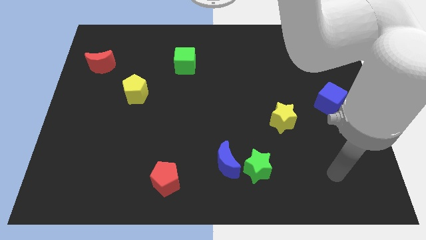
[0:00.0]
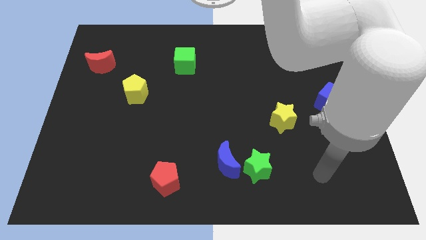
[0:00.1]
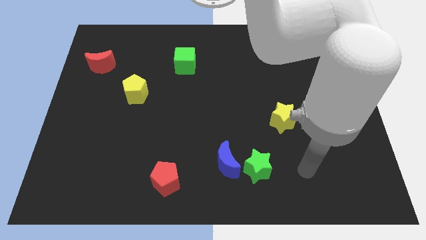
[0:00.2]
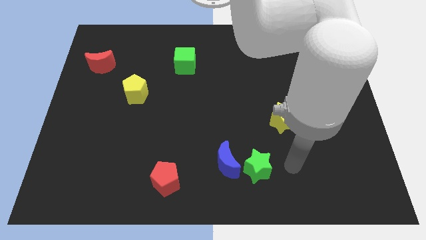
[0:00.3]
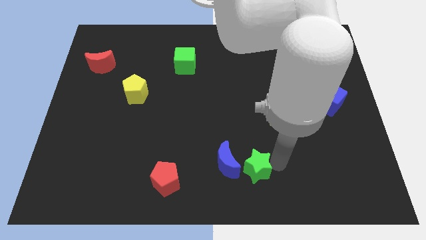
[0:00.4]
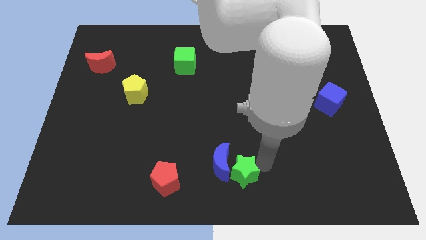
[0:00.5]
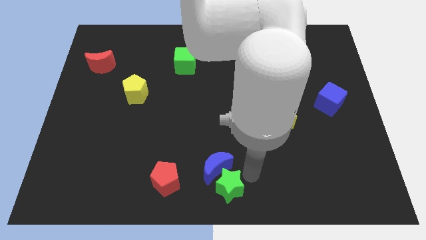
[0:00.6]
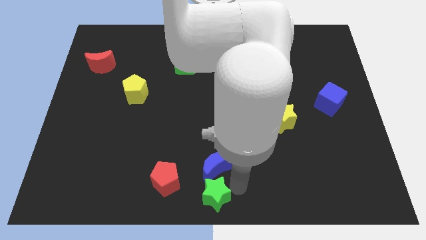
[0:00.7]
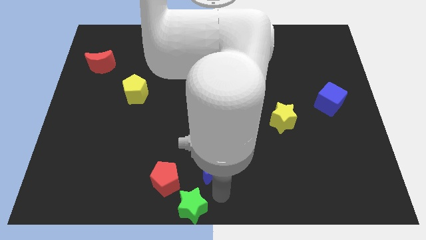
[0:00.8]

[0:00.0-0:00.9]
pull the blue moon apart from the green star

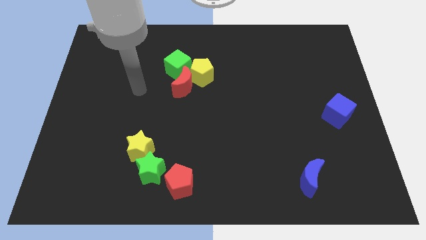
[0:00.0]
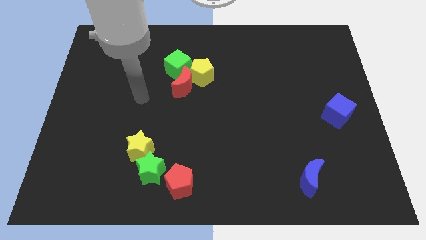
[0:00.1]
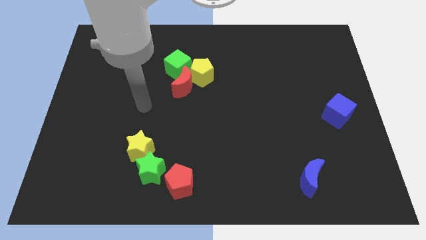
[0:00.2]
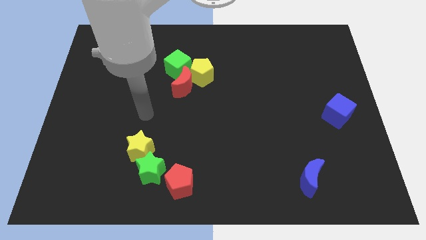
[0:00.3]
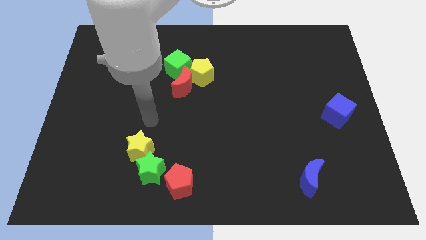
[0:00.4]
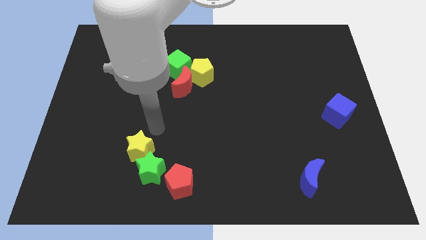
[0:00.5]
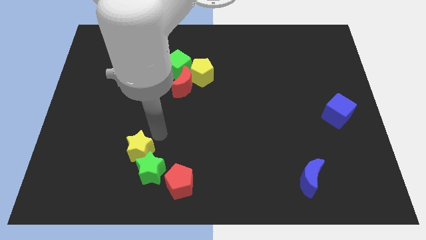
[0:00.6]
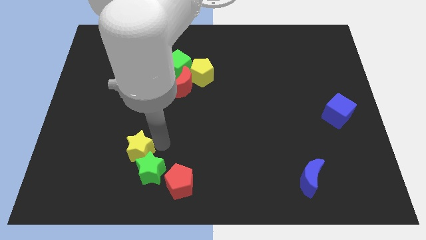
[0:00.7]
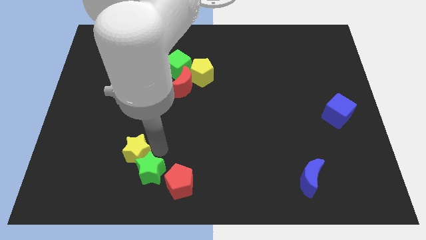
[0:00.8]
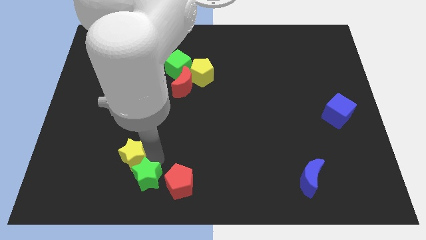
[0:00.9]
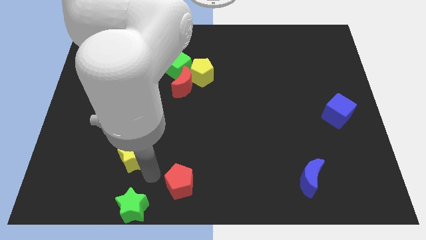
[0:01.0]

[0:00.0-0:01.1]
move the yellow star away from the green star

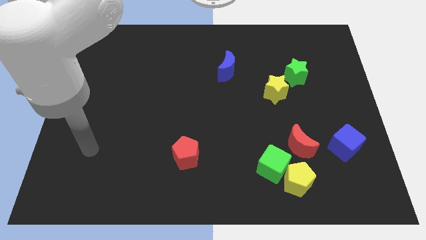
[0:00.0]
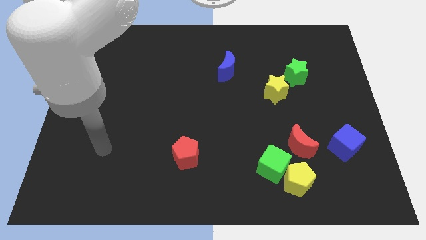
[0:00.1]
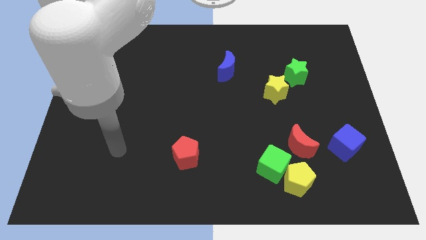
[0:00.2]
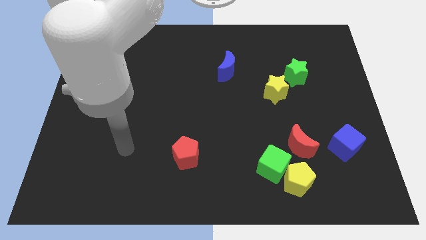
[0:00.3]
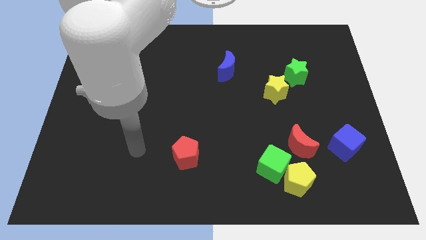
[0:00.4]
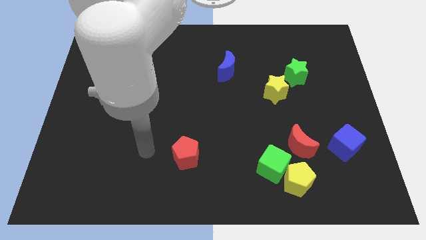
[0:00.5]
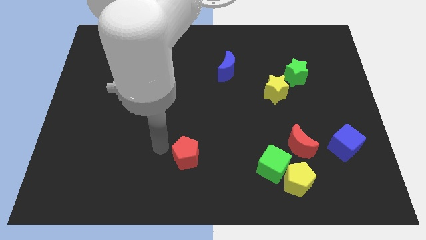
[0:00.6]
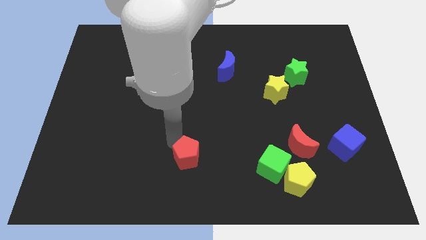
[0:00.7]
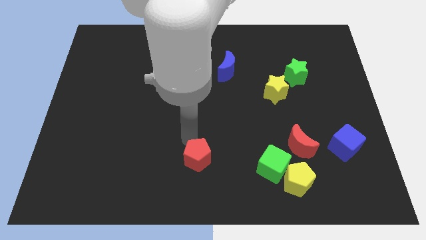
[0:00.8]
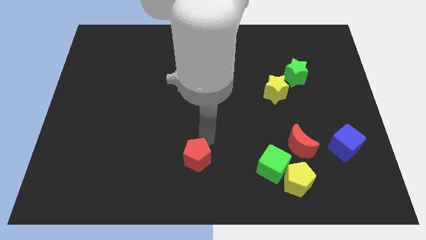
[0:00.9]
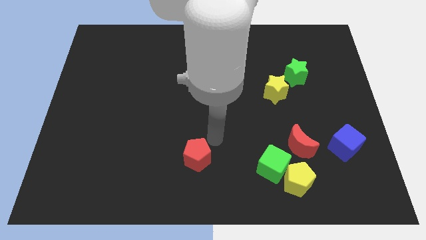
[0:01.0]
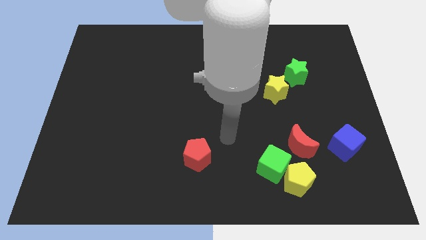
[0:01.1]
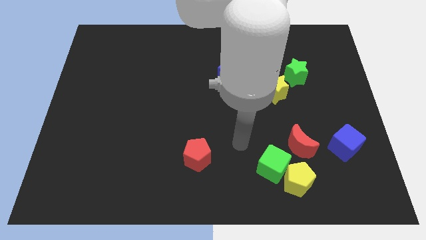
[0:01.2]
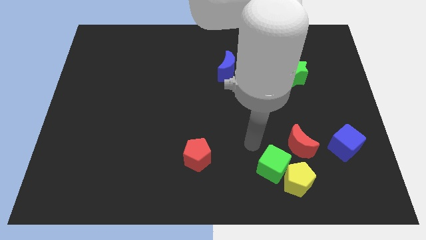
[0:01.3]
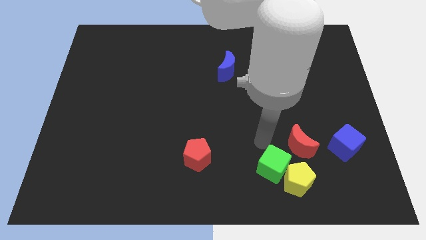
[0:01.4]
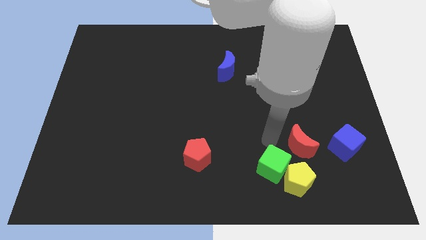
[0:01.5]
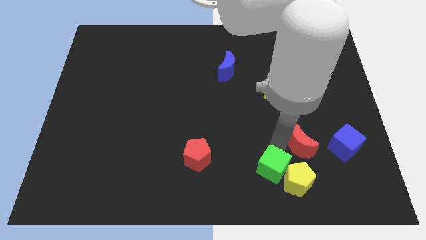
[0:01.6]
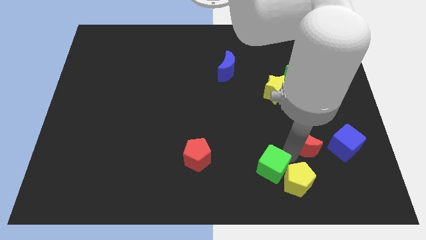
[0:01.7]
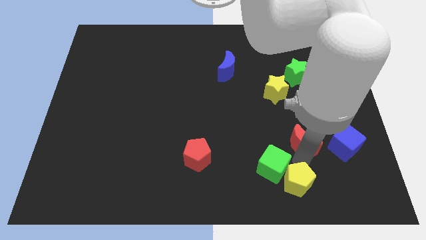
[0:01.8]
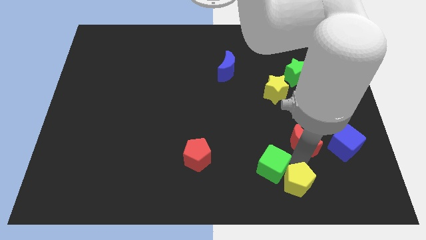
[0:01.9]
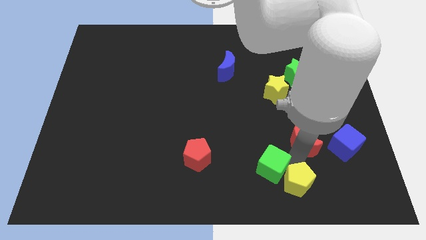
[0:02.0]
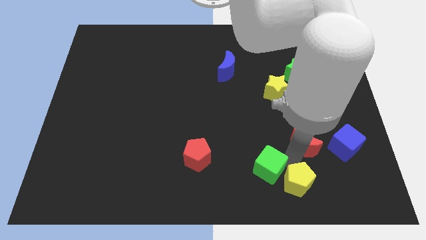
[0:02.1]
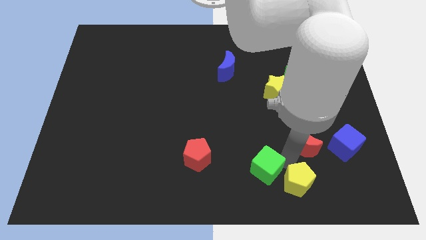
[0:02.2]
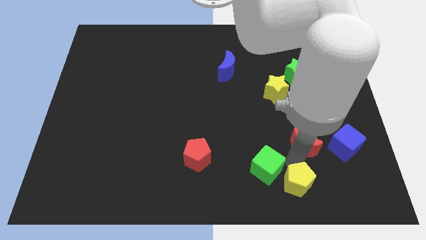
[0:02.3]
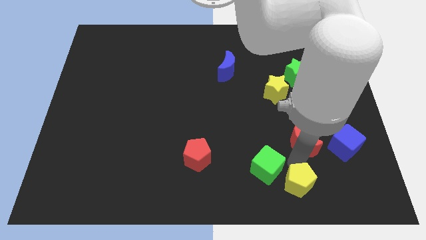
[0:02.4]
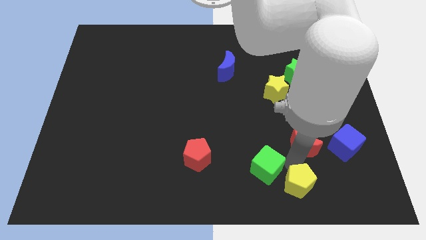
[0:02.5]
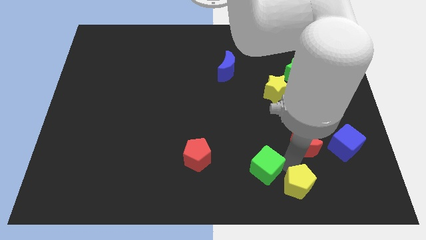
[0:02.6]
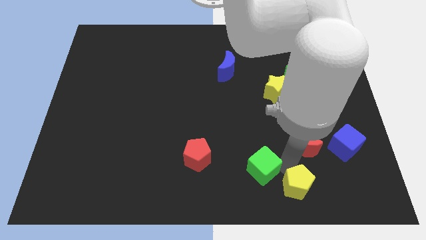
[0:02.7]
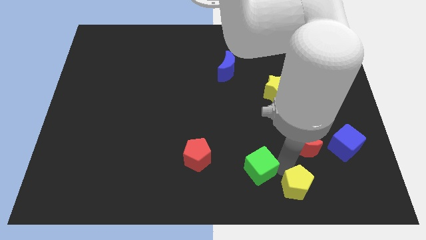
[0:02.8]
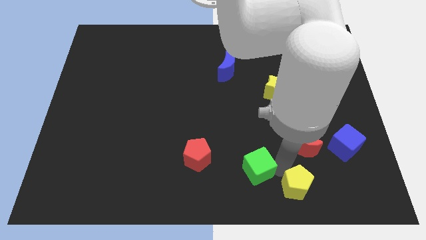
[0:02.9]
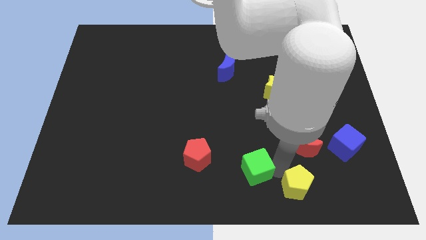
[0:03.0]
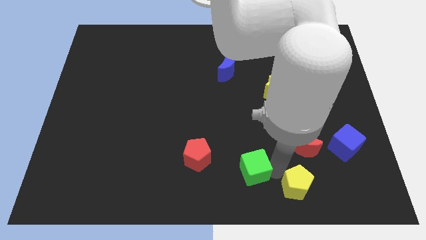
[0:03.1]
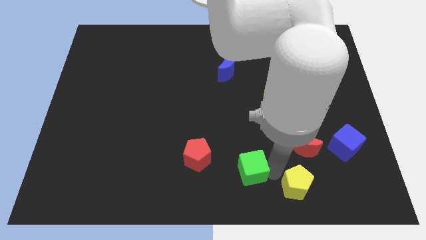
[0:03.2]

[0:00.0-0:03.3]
pull the green cube apart from the yellow pentagon and red moon

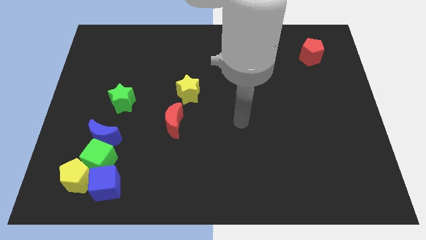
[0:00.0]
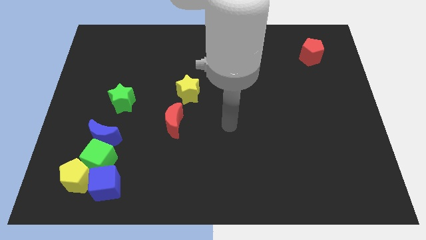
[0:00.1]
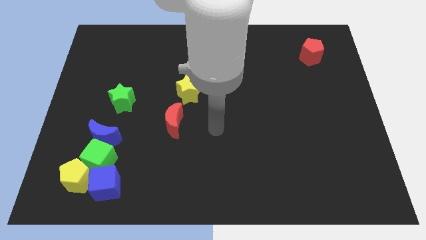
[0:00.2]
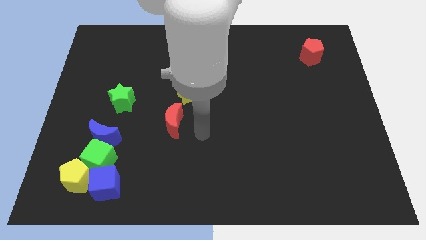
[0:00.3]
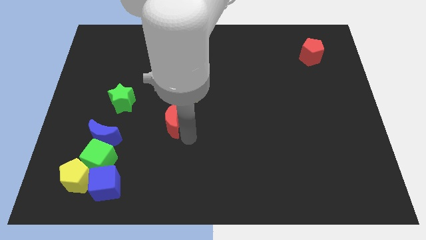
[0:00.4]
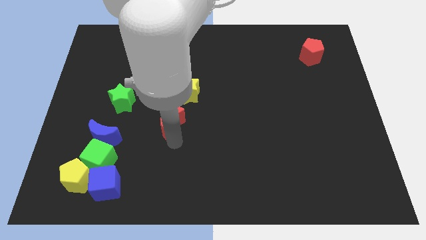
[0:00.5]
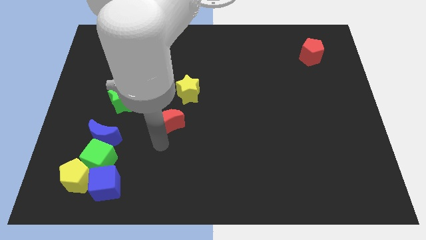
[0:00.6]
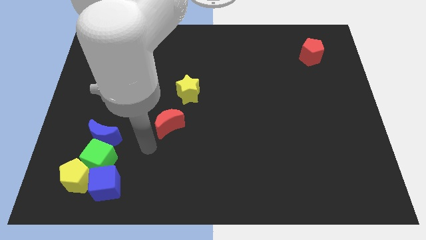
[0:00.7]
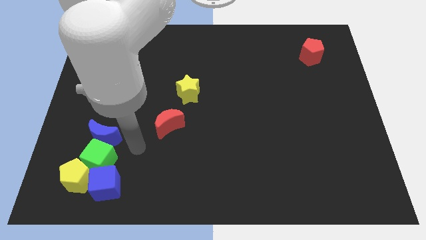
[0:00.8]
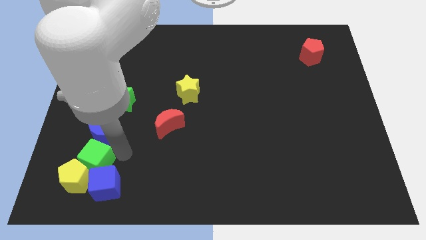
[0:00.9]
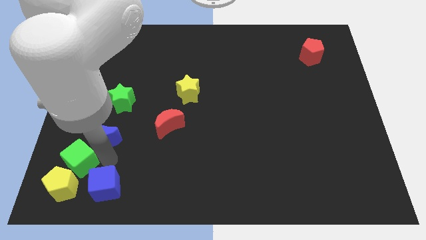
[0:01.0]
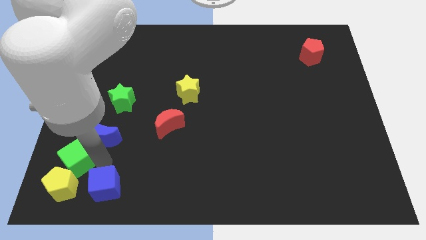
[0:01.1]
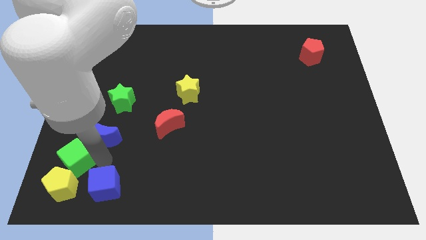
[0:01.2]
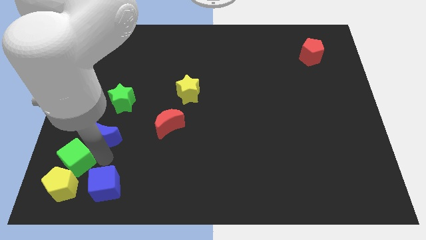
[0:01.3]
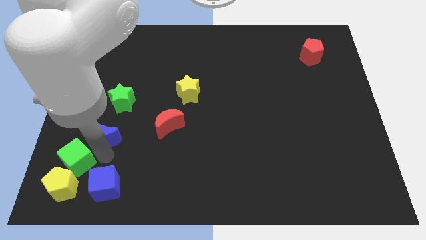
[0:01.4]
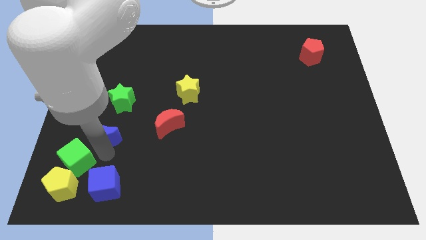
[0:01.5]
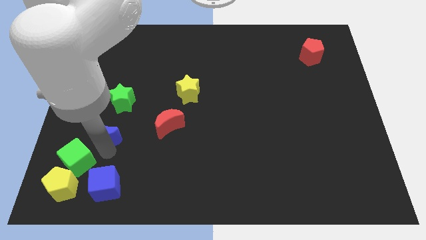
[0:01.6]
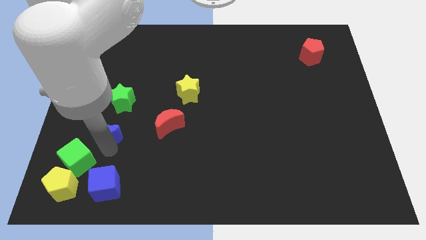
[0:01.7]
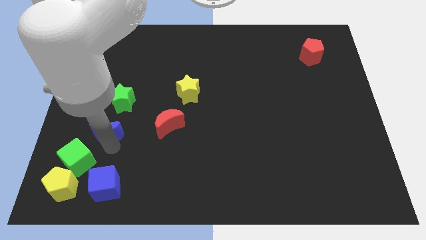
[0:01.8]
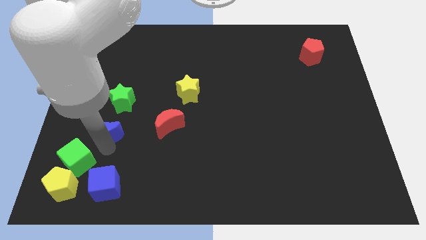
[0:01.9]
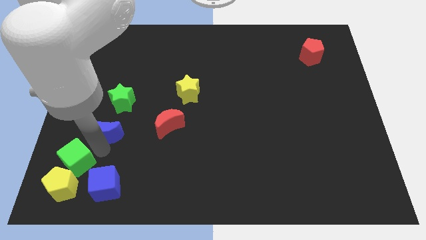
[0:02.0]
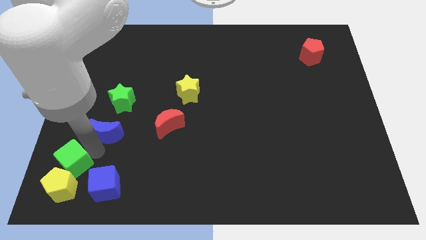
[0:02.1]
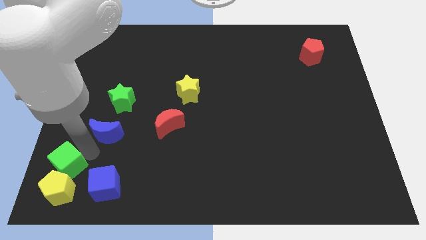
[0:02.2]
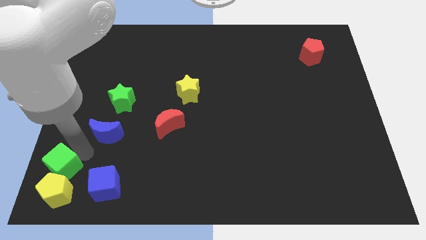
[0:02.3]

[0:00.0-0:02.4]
move the blue moon away from the green cube

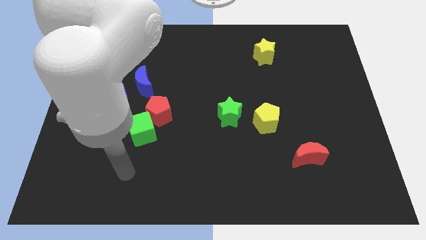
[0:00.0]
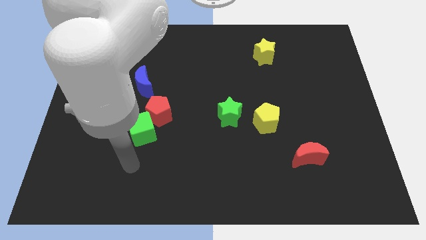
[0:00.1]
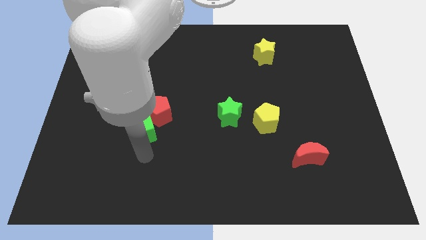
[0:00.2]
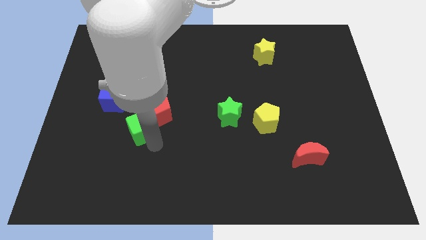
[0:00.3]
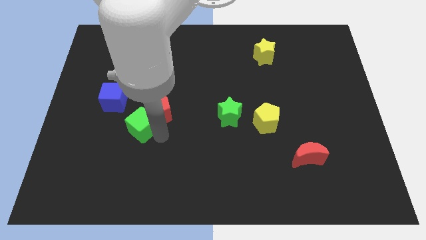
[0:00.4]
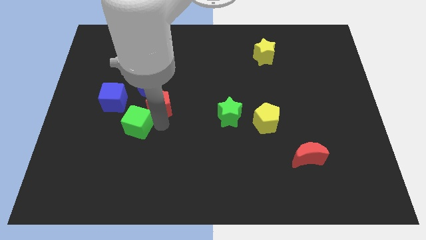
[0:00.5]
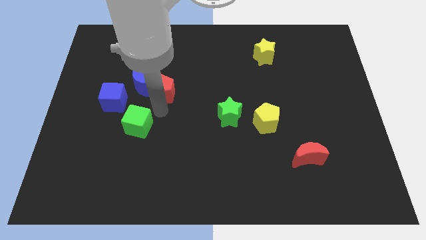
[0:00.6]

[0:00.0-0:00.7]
move the green cube away from the red pentagon

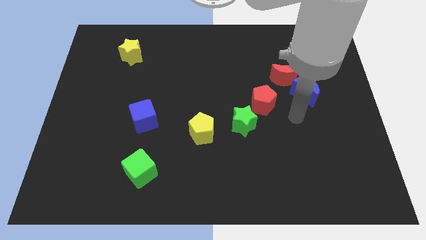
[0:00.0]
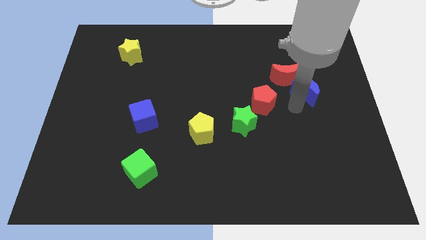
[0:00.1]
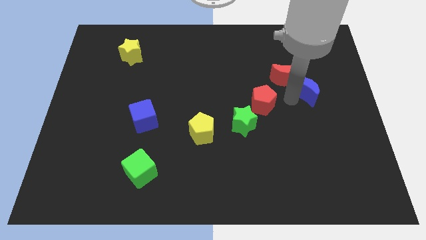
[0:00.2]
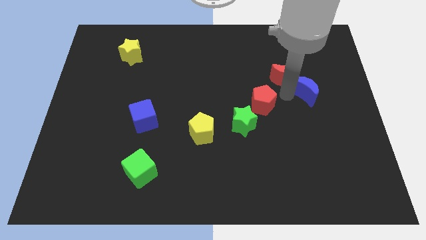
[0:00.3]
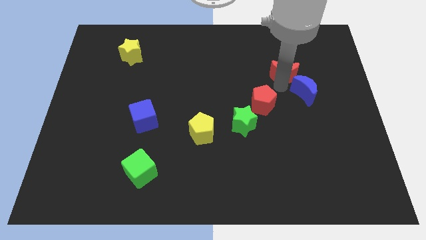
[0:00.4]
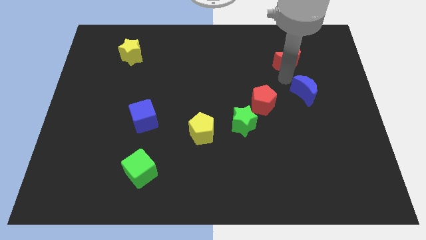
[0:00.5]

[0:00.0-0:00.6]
separate the blue moon from the red moon

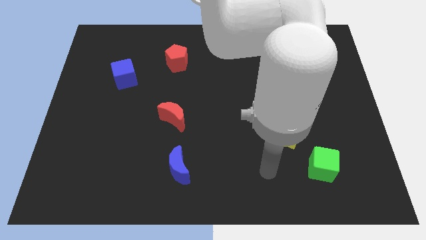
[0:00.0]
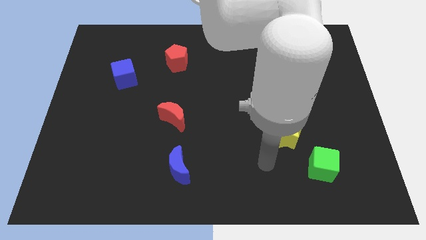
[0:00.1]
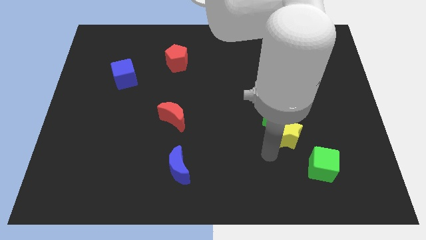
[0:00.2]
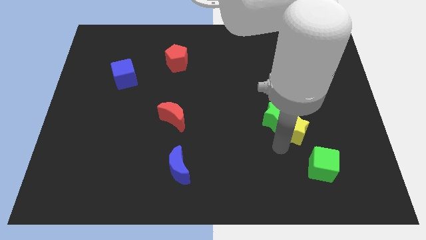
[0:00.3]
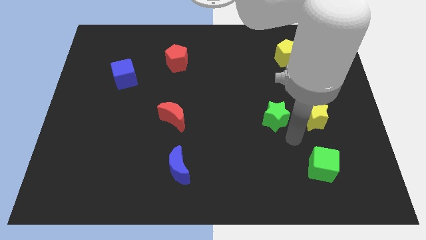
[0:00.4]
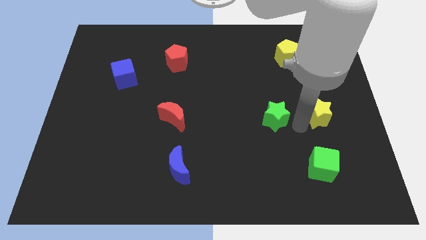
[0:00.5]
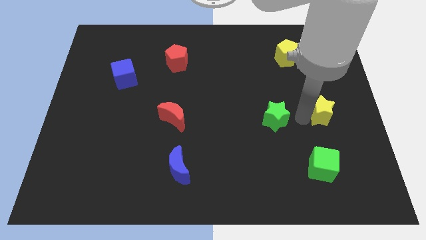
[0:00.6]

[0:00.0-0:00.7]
separate the green star from the yellow star
